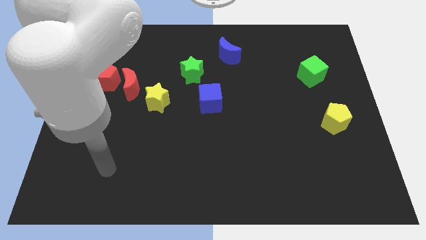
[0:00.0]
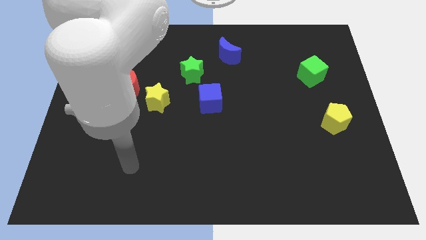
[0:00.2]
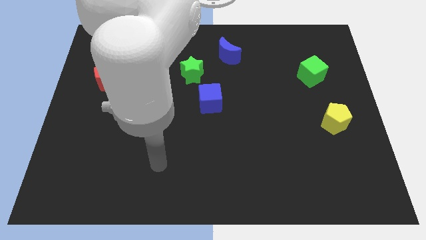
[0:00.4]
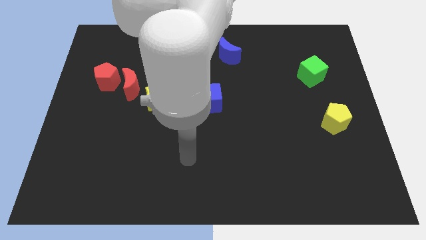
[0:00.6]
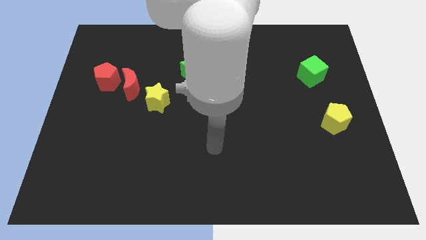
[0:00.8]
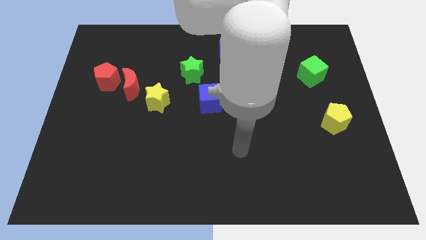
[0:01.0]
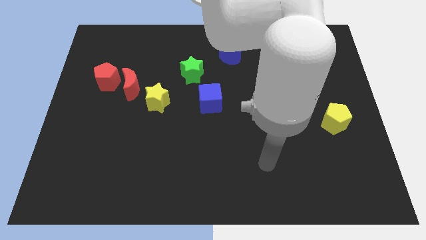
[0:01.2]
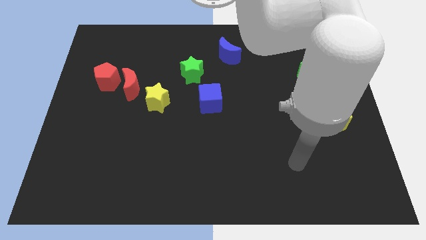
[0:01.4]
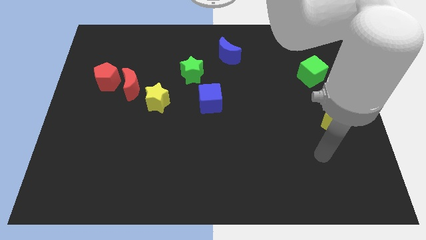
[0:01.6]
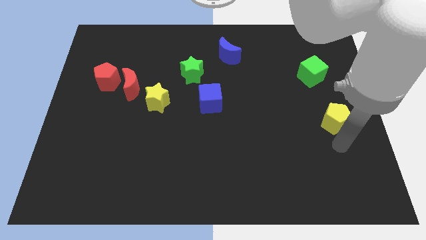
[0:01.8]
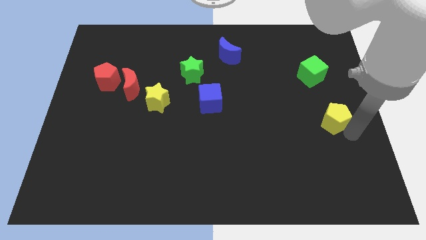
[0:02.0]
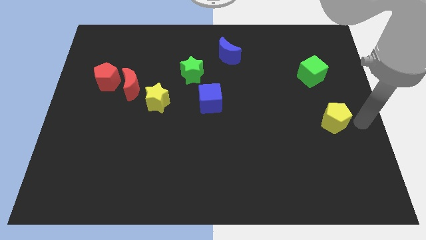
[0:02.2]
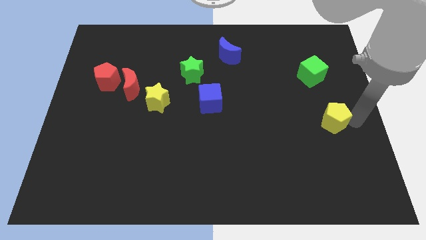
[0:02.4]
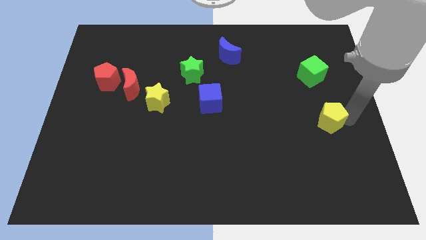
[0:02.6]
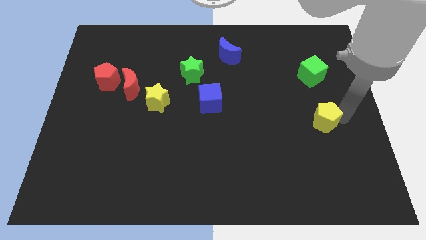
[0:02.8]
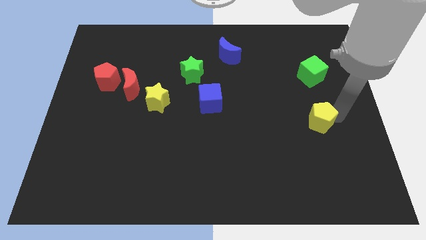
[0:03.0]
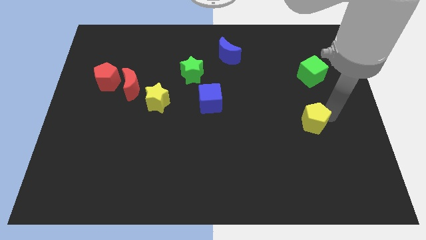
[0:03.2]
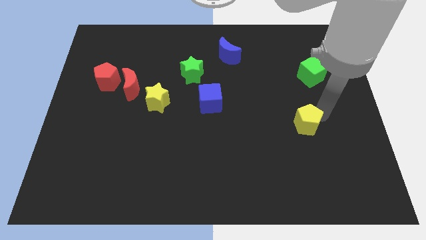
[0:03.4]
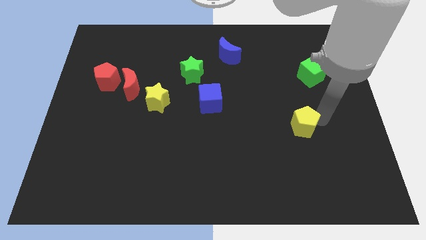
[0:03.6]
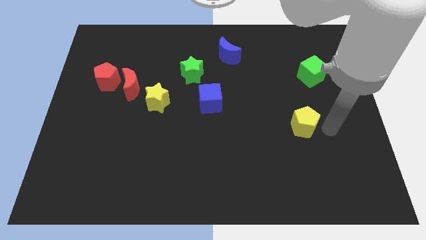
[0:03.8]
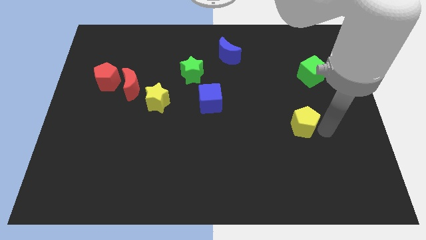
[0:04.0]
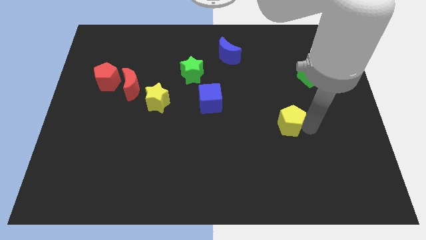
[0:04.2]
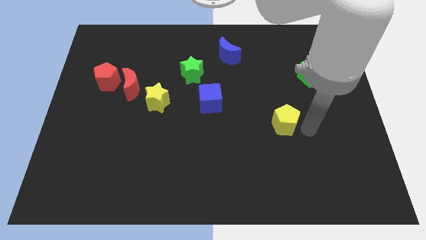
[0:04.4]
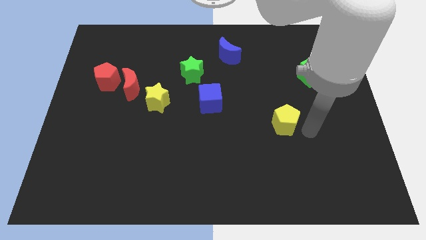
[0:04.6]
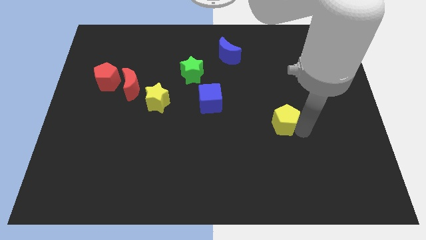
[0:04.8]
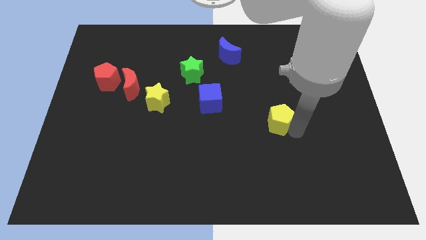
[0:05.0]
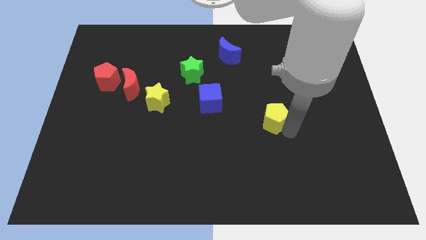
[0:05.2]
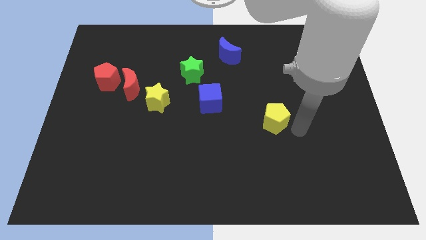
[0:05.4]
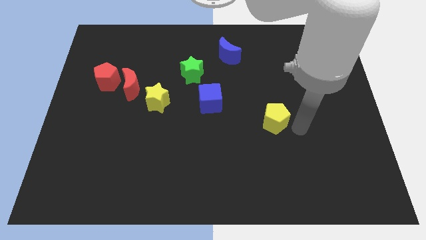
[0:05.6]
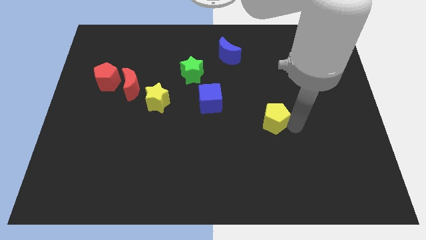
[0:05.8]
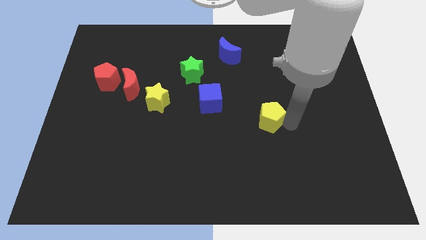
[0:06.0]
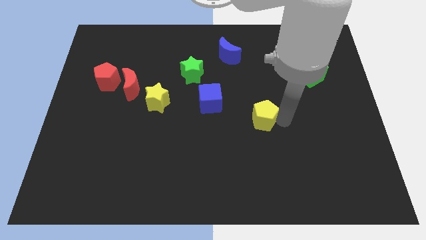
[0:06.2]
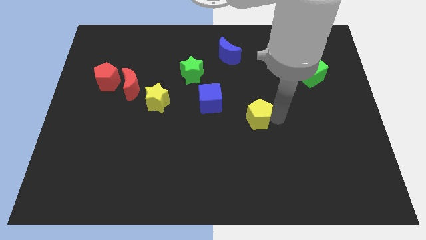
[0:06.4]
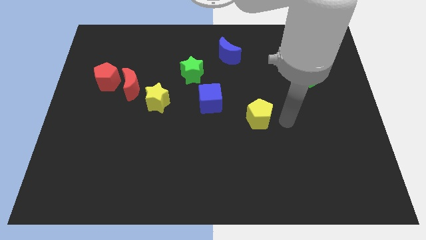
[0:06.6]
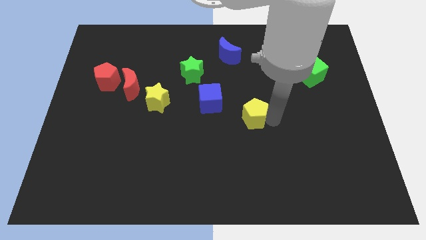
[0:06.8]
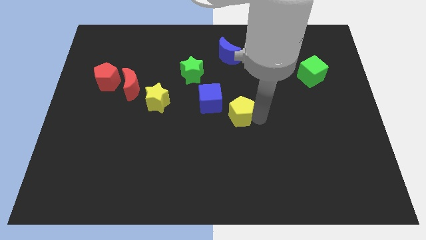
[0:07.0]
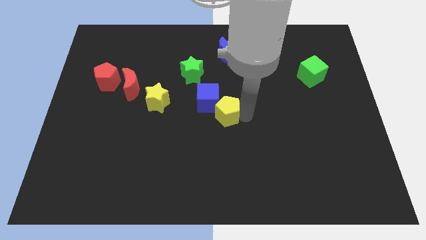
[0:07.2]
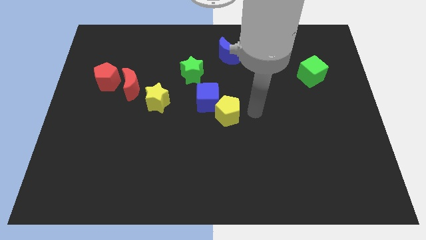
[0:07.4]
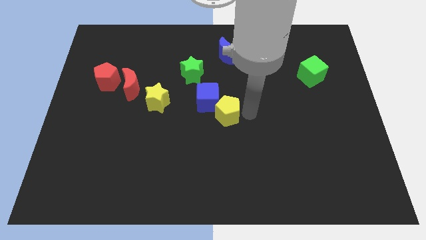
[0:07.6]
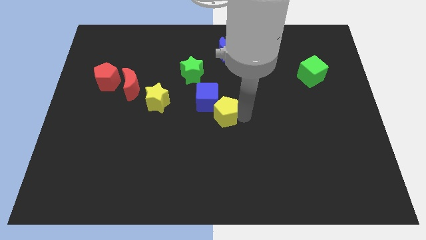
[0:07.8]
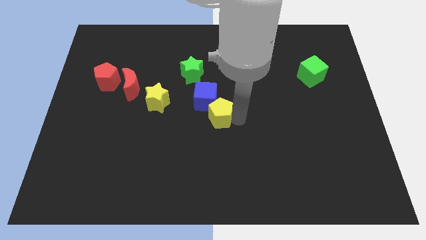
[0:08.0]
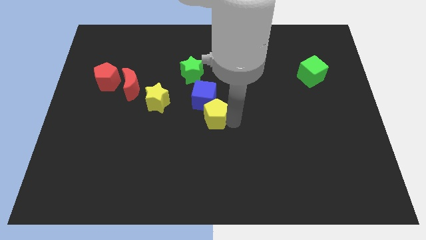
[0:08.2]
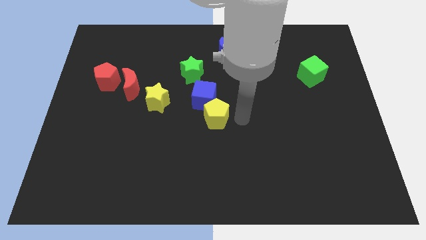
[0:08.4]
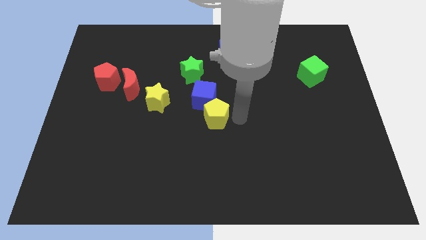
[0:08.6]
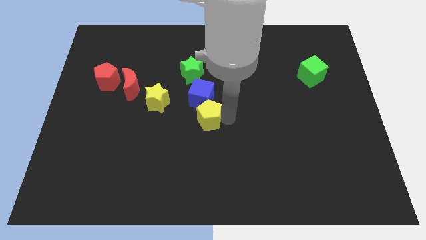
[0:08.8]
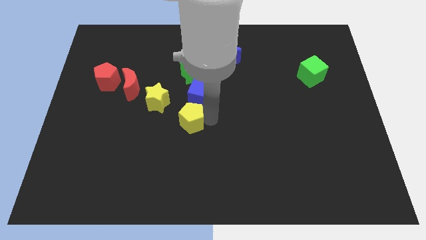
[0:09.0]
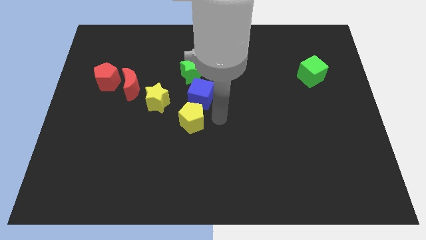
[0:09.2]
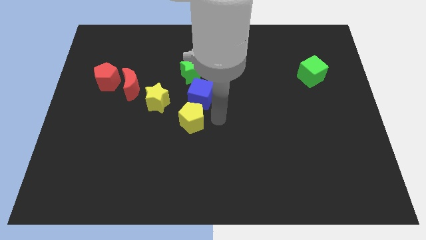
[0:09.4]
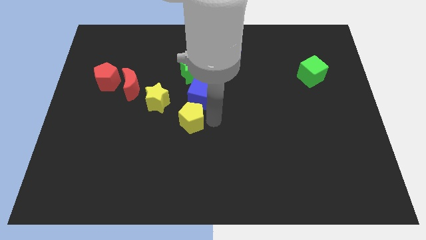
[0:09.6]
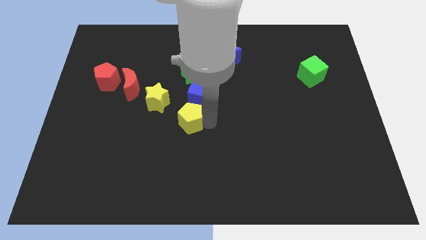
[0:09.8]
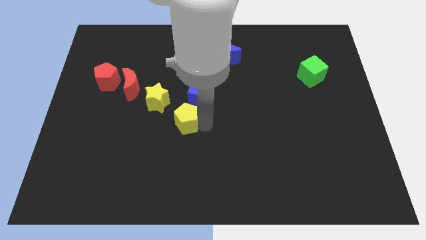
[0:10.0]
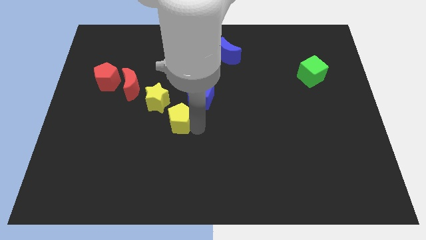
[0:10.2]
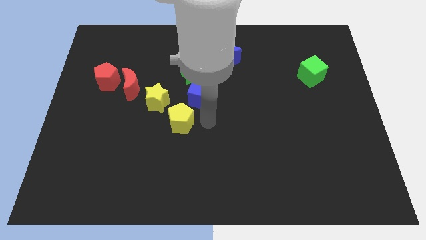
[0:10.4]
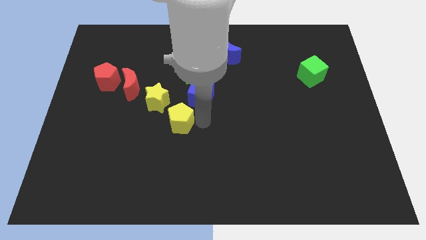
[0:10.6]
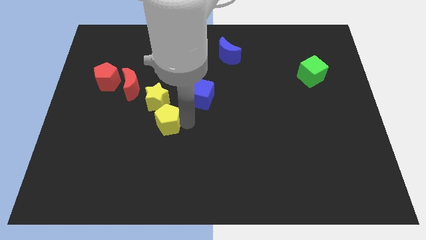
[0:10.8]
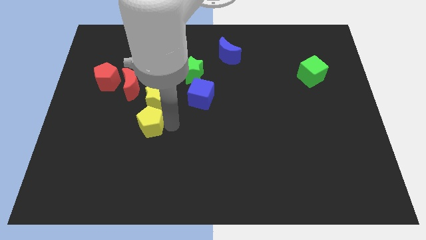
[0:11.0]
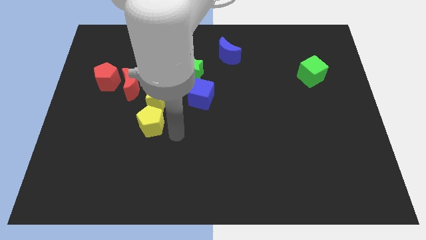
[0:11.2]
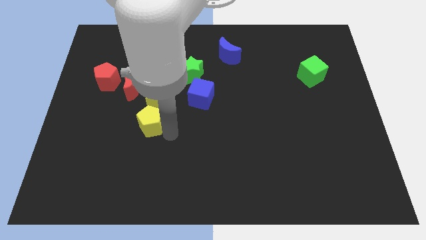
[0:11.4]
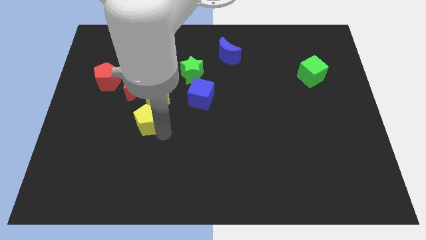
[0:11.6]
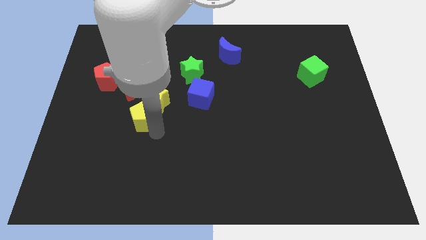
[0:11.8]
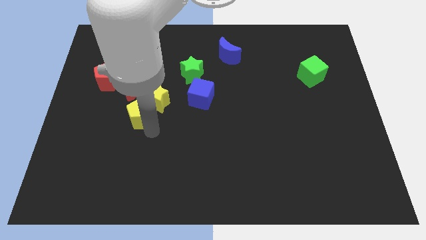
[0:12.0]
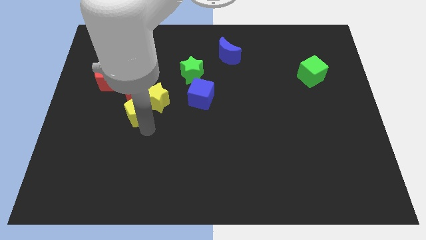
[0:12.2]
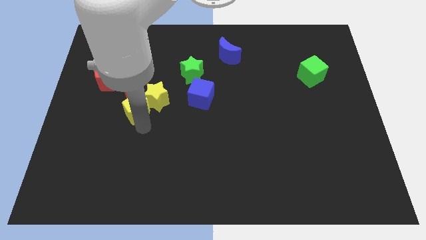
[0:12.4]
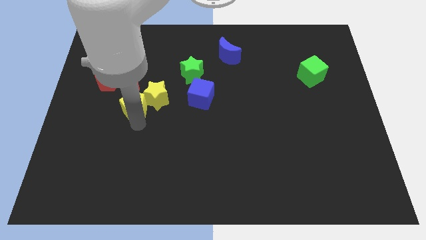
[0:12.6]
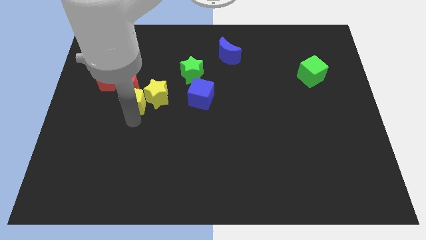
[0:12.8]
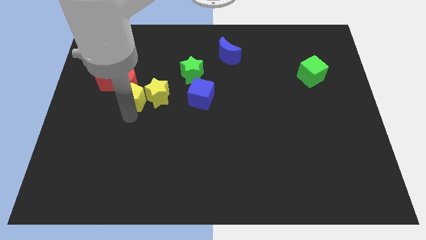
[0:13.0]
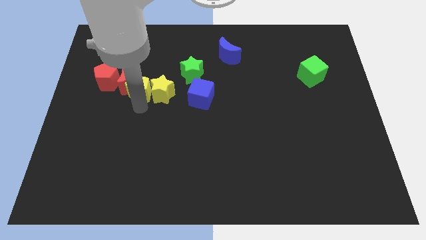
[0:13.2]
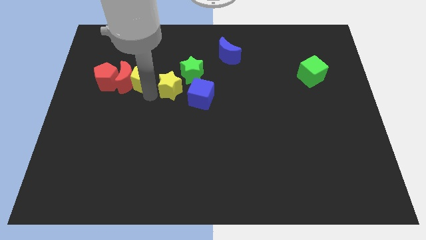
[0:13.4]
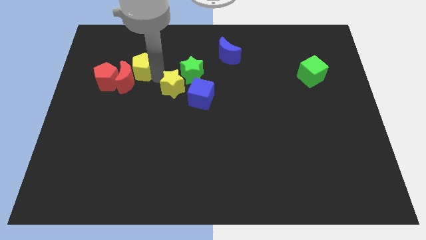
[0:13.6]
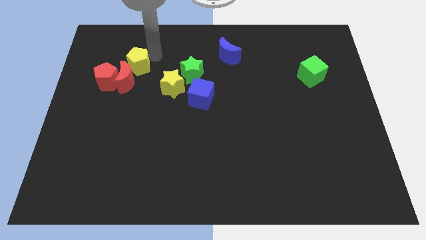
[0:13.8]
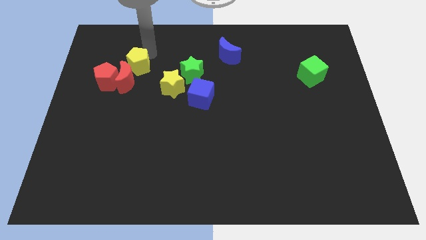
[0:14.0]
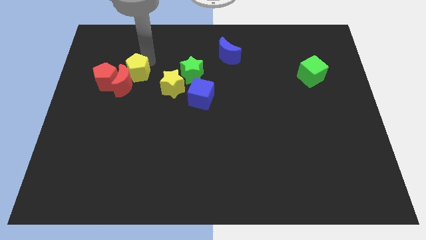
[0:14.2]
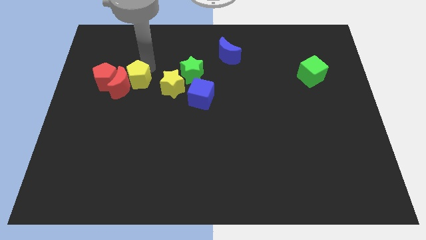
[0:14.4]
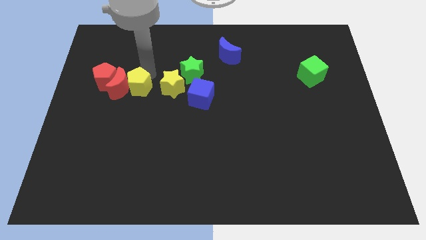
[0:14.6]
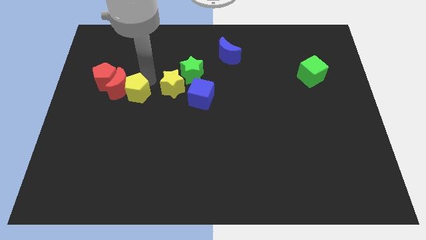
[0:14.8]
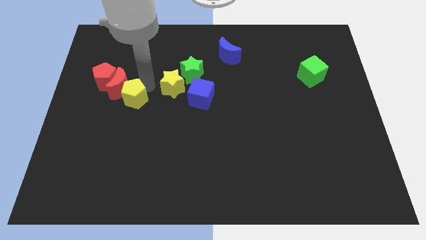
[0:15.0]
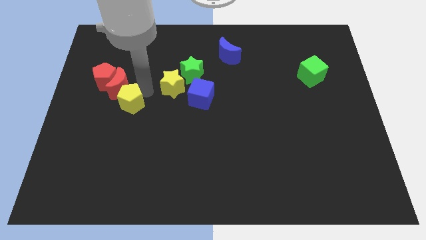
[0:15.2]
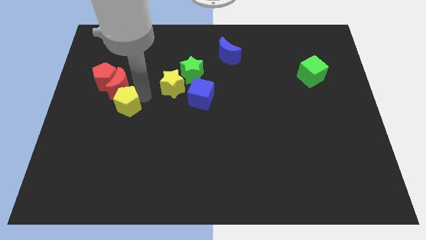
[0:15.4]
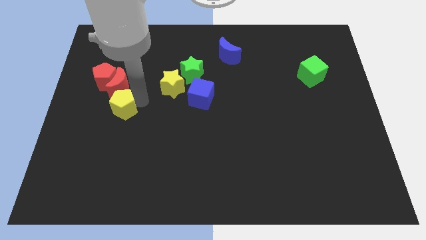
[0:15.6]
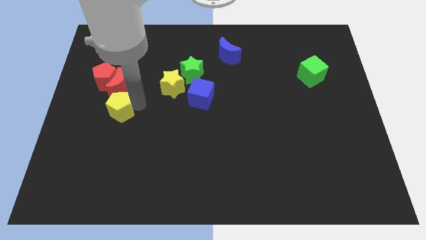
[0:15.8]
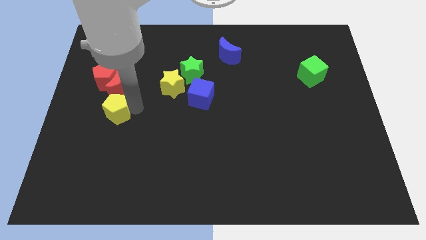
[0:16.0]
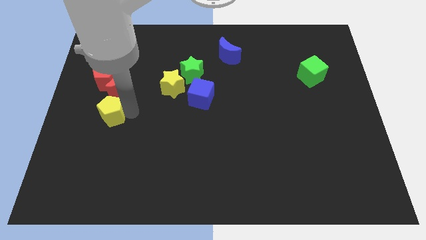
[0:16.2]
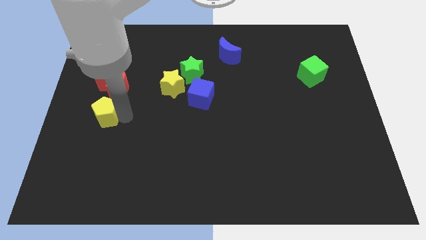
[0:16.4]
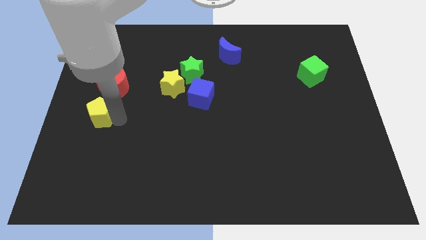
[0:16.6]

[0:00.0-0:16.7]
push the yellow pentagon to the center left
